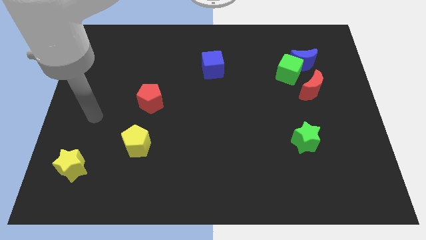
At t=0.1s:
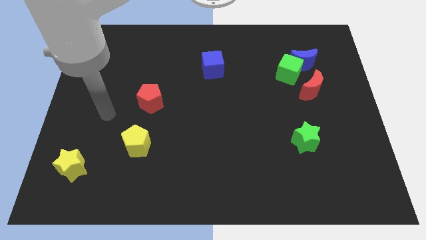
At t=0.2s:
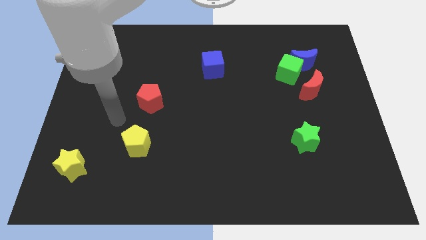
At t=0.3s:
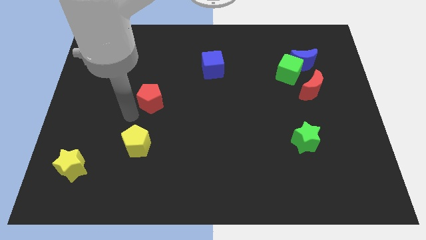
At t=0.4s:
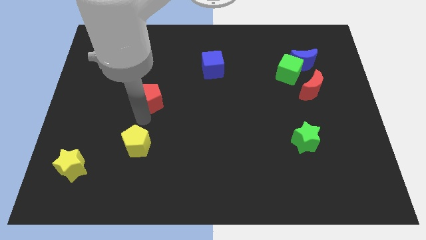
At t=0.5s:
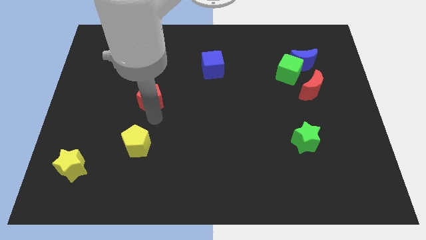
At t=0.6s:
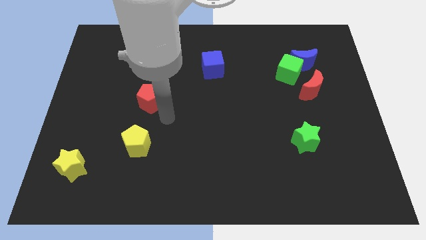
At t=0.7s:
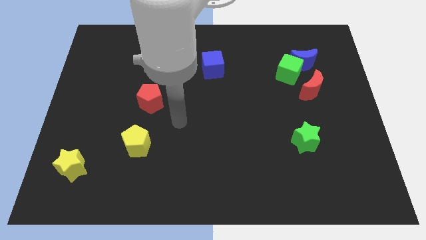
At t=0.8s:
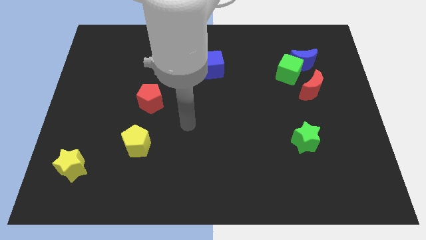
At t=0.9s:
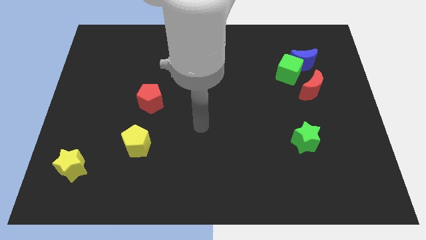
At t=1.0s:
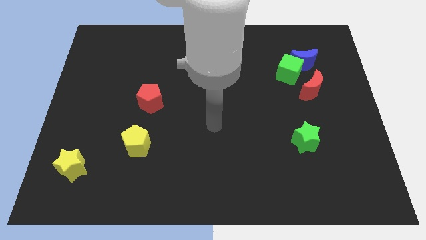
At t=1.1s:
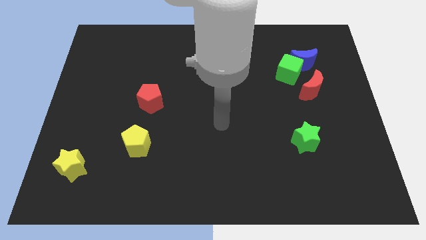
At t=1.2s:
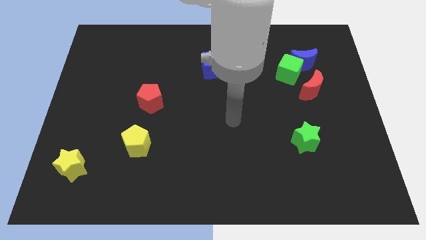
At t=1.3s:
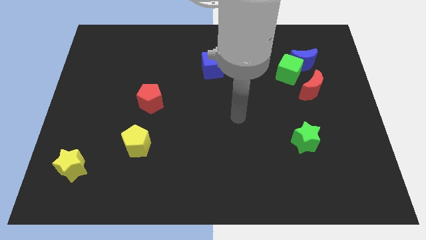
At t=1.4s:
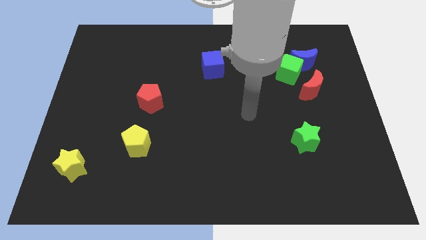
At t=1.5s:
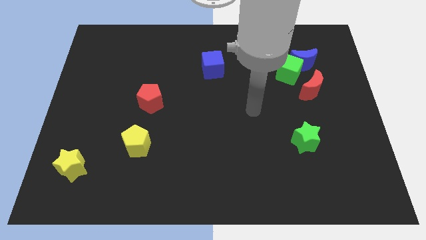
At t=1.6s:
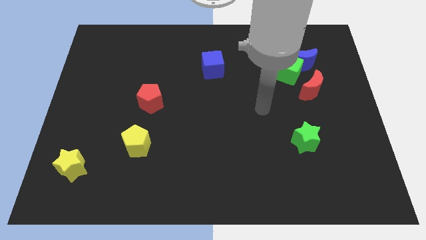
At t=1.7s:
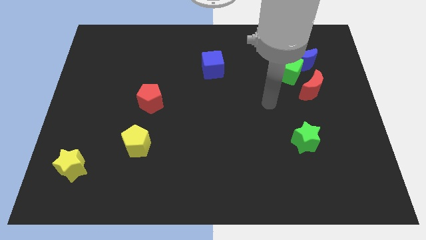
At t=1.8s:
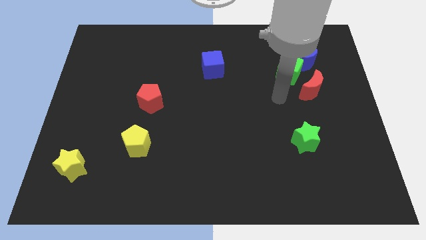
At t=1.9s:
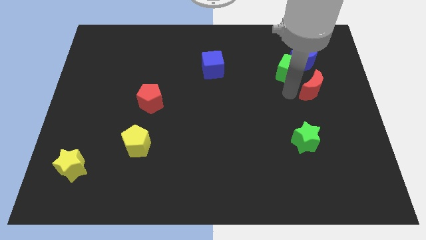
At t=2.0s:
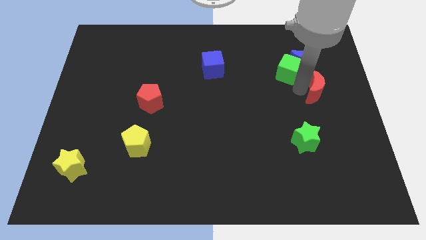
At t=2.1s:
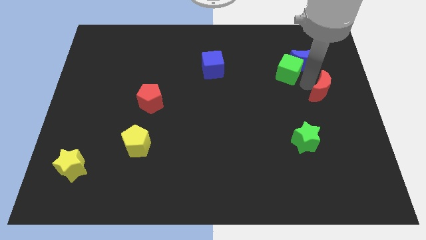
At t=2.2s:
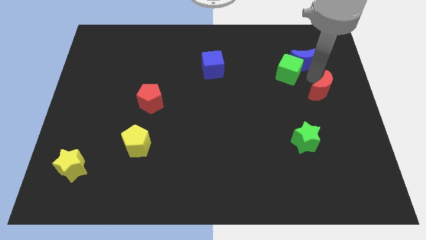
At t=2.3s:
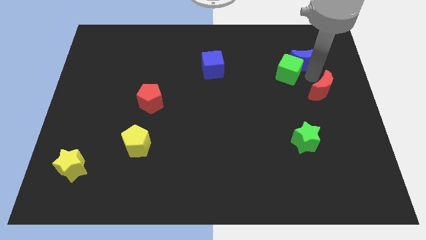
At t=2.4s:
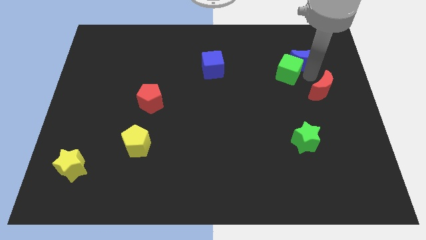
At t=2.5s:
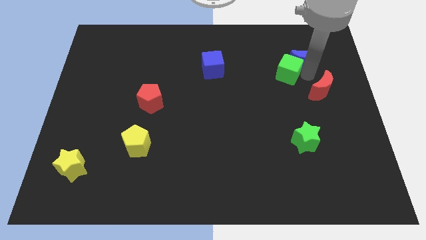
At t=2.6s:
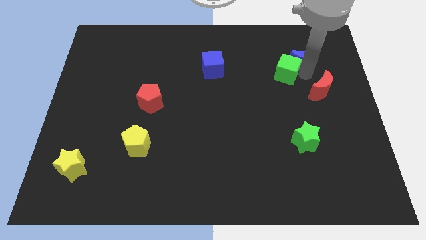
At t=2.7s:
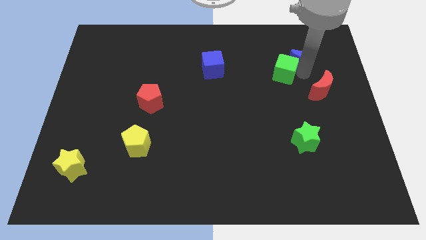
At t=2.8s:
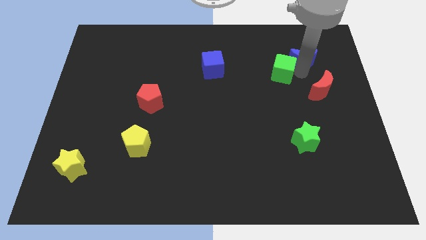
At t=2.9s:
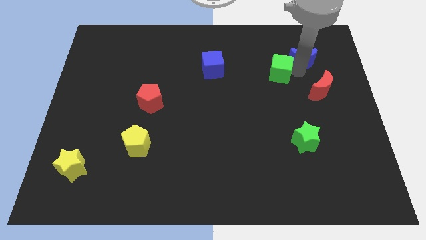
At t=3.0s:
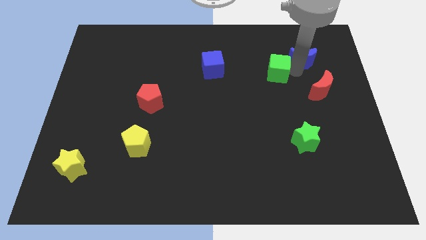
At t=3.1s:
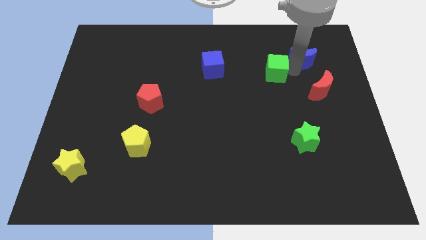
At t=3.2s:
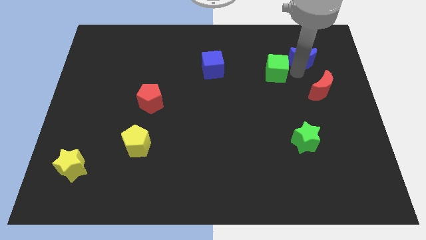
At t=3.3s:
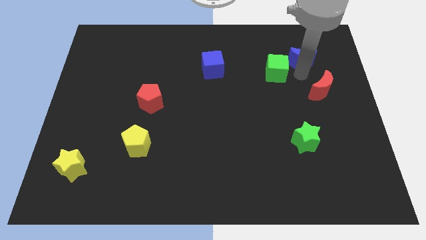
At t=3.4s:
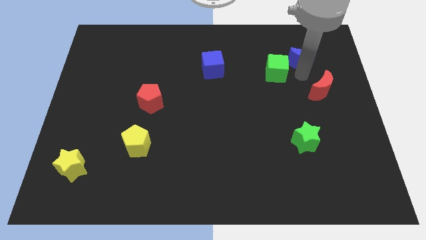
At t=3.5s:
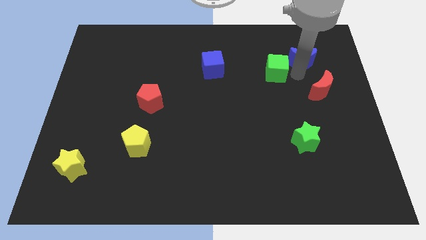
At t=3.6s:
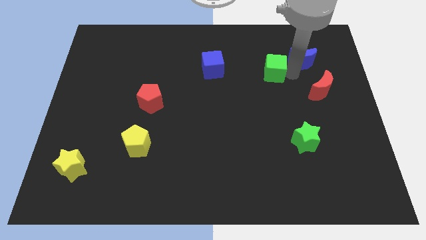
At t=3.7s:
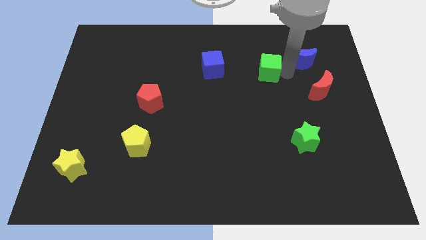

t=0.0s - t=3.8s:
pull the green cube apart from the blue moon and red moon

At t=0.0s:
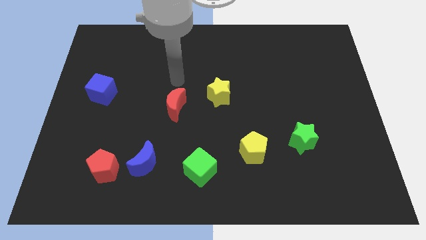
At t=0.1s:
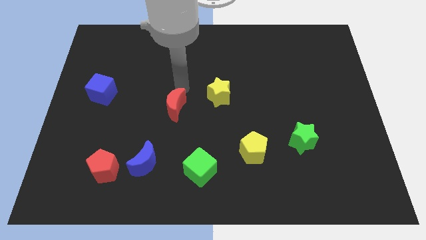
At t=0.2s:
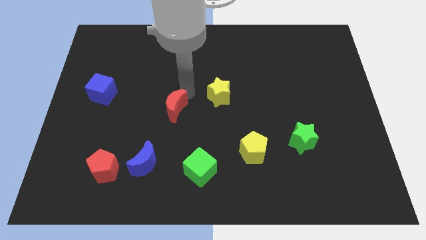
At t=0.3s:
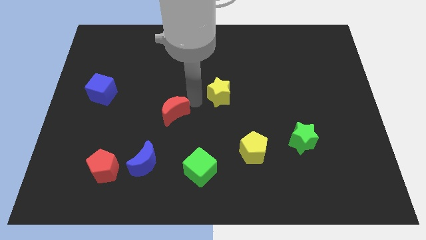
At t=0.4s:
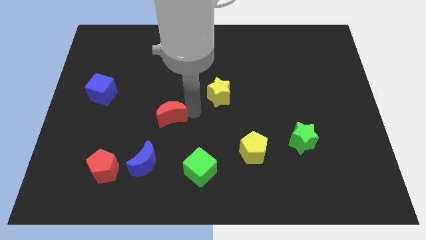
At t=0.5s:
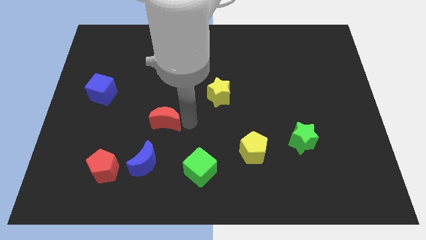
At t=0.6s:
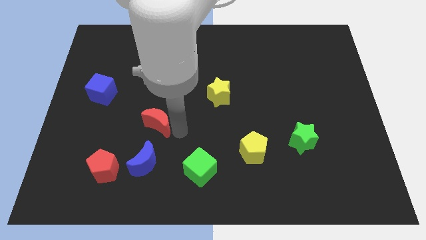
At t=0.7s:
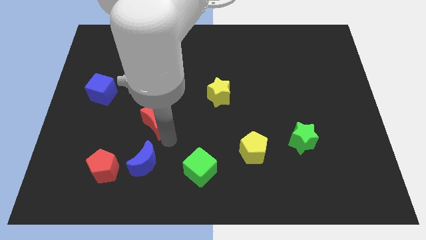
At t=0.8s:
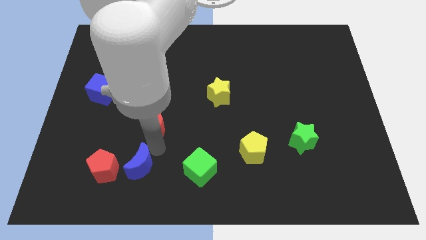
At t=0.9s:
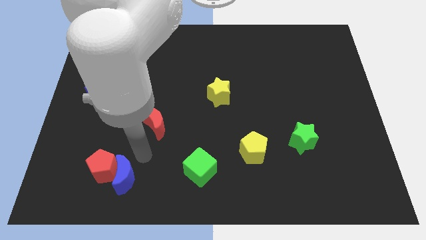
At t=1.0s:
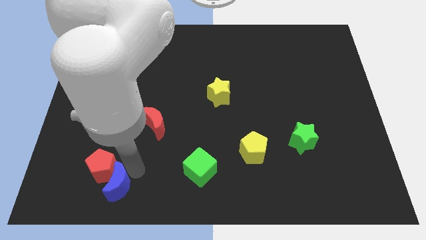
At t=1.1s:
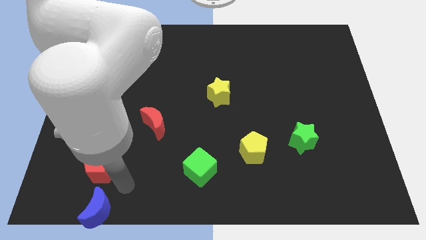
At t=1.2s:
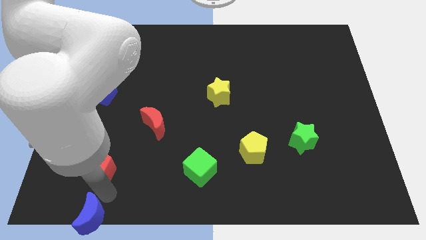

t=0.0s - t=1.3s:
pull the red pentagon apart from the blue moon

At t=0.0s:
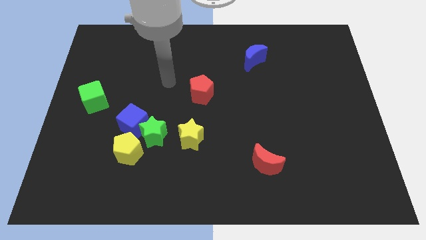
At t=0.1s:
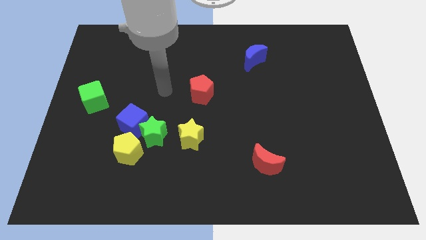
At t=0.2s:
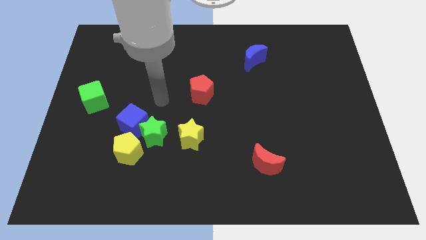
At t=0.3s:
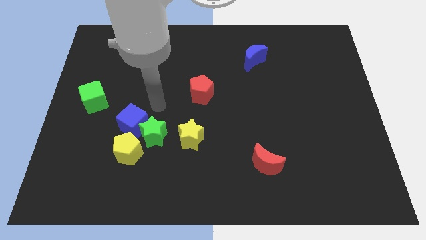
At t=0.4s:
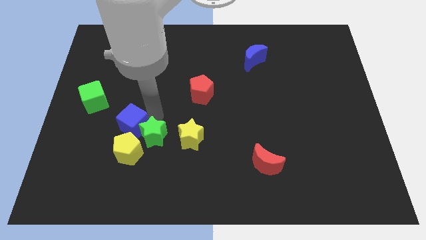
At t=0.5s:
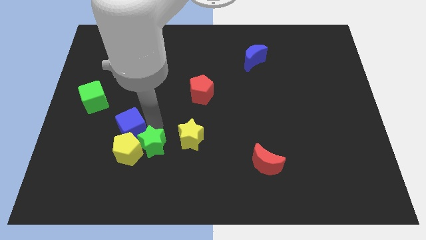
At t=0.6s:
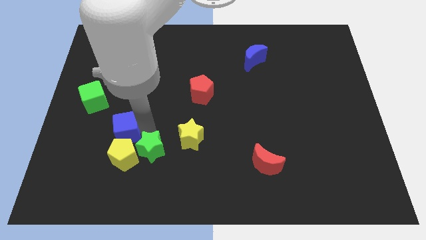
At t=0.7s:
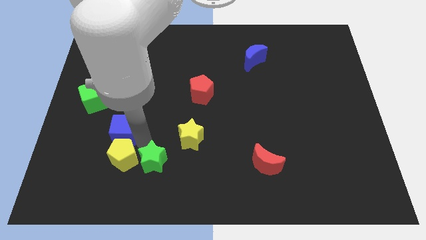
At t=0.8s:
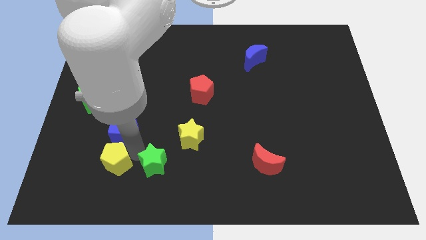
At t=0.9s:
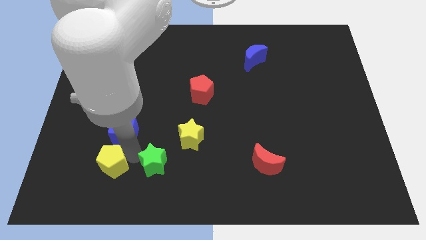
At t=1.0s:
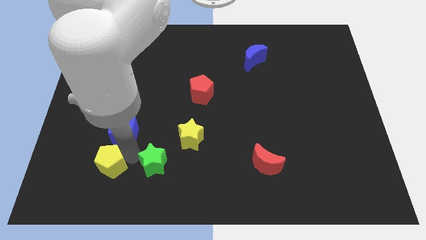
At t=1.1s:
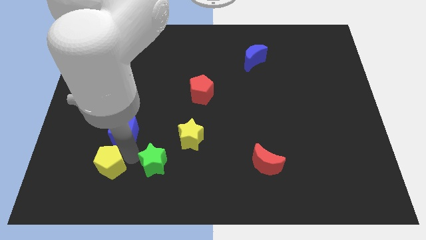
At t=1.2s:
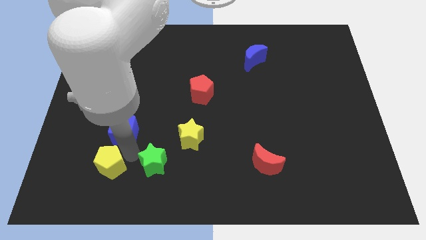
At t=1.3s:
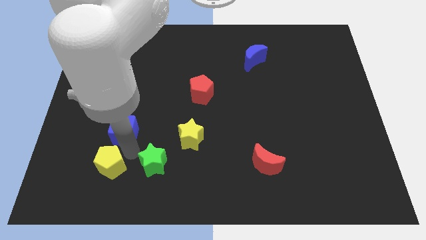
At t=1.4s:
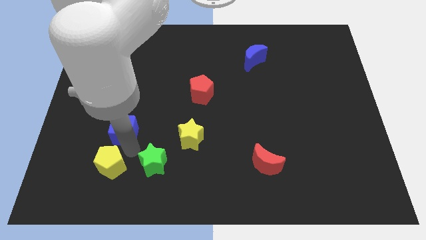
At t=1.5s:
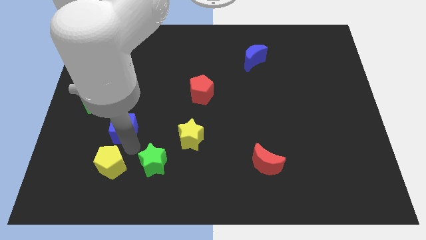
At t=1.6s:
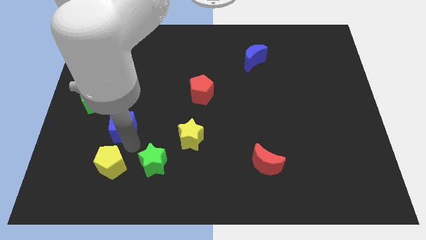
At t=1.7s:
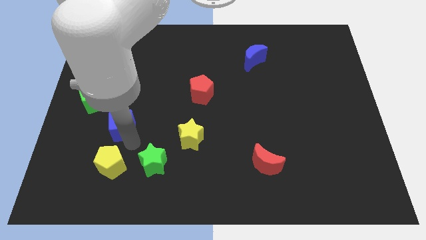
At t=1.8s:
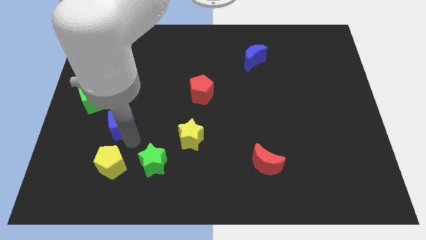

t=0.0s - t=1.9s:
pull the blue cube apart from the green star and yellow pentagon

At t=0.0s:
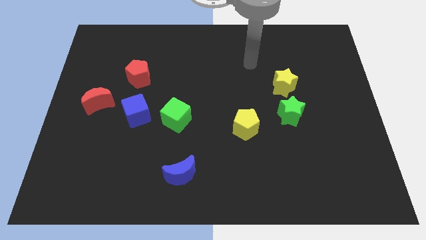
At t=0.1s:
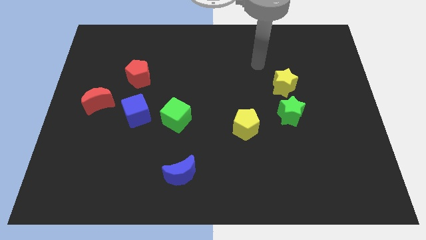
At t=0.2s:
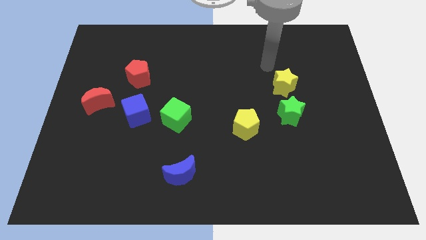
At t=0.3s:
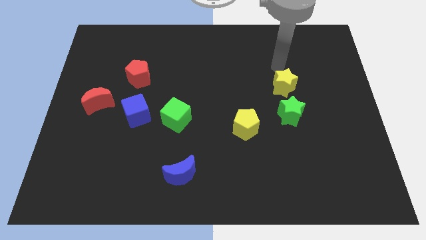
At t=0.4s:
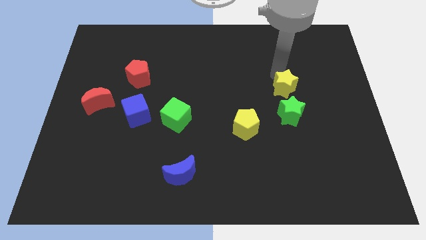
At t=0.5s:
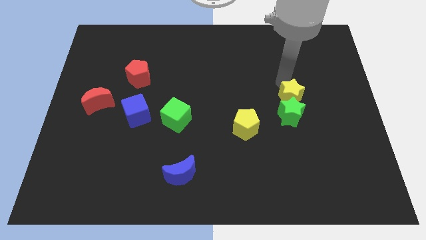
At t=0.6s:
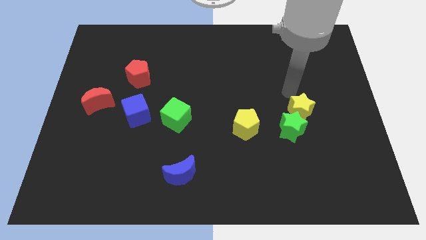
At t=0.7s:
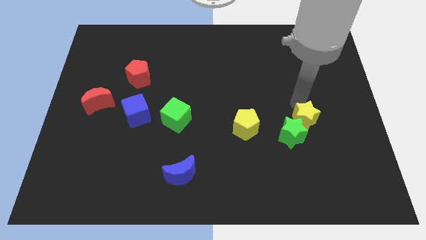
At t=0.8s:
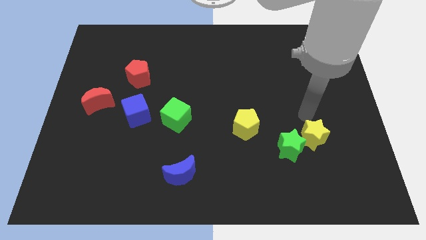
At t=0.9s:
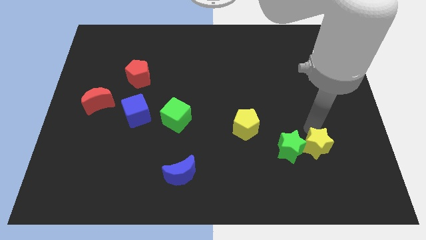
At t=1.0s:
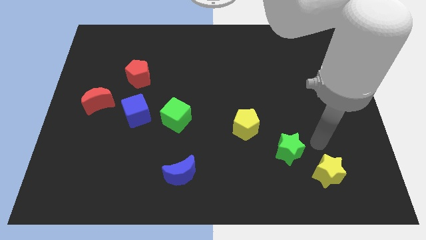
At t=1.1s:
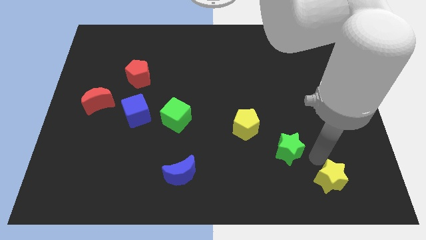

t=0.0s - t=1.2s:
move the green star away from the yellow star

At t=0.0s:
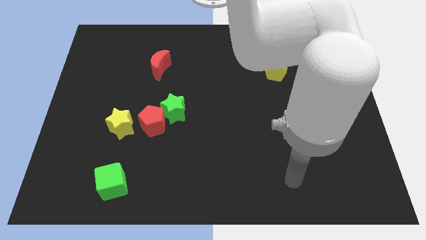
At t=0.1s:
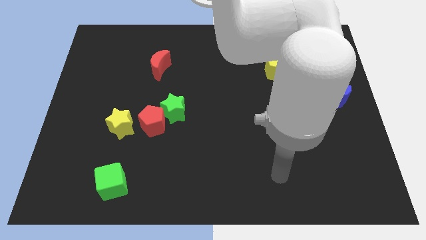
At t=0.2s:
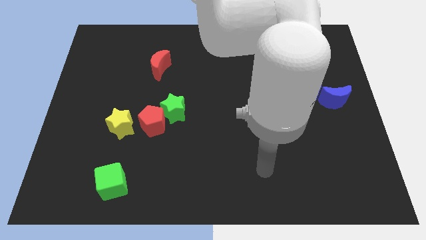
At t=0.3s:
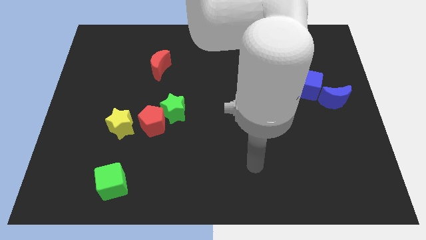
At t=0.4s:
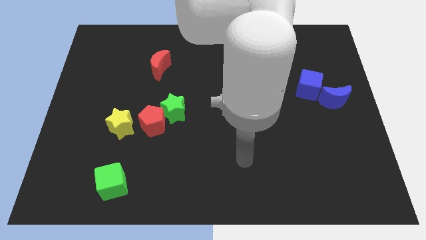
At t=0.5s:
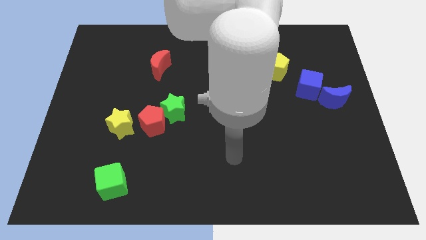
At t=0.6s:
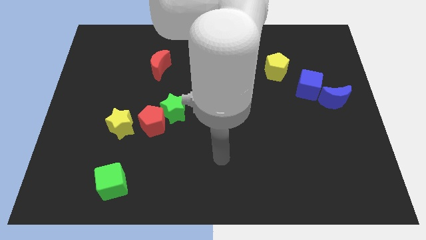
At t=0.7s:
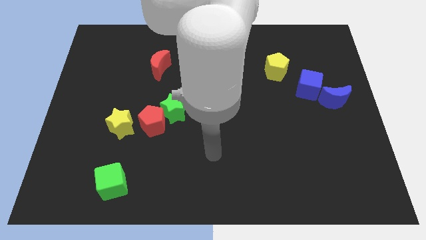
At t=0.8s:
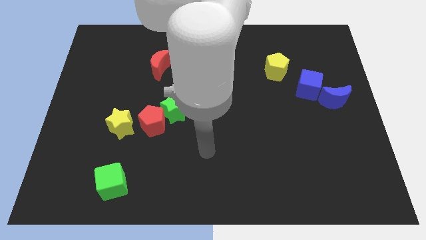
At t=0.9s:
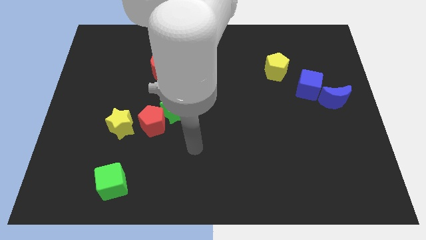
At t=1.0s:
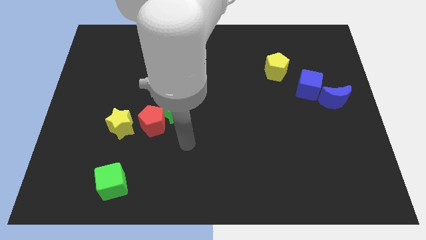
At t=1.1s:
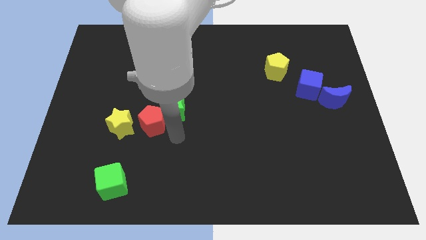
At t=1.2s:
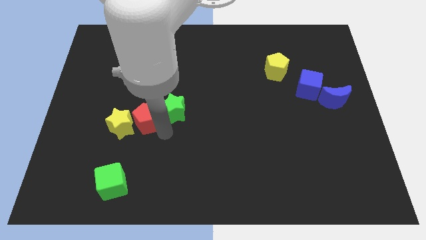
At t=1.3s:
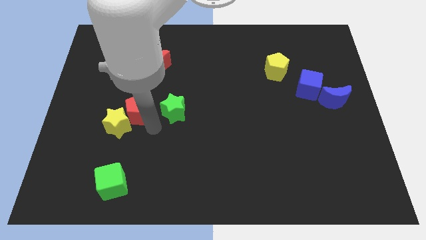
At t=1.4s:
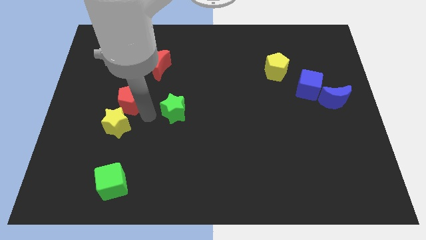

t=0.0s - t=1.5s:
pull the green star apart from the red pentagon
